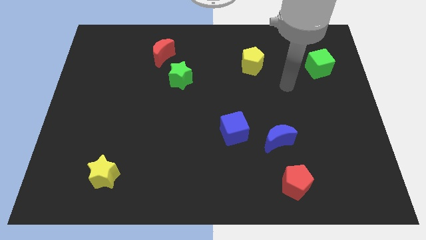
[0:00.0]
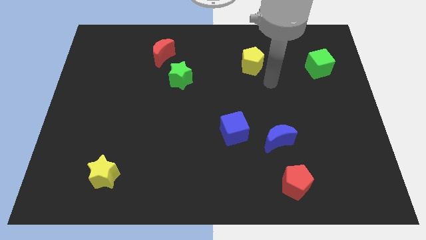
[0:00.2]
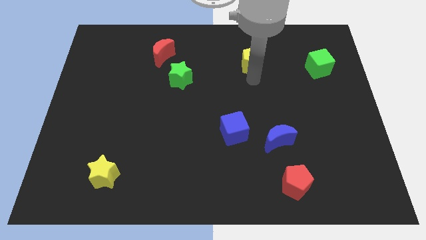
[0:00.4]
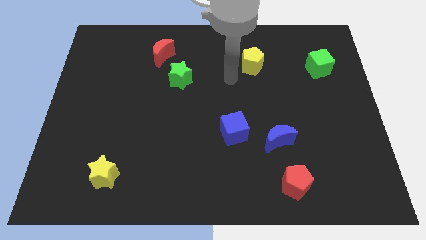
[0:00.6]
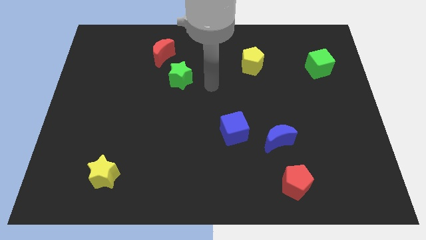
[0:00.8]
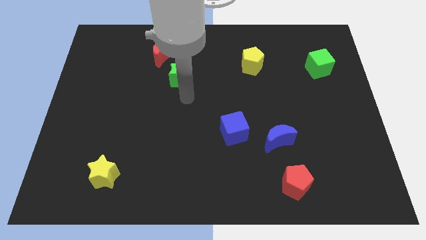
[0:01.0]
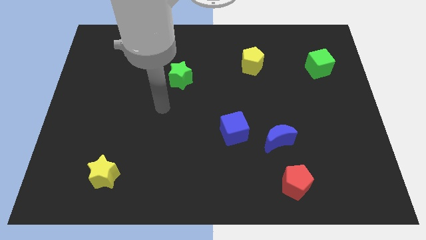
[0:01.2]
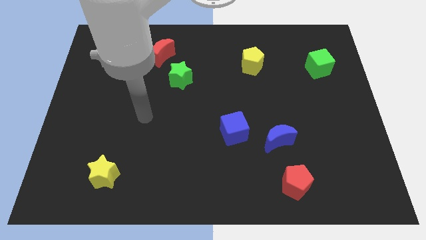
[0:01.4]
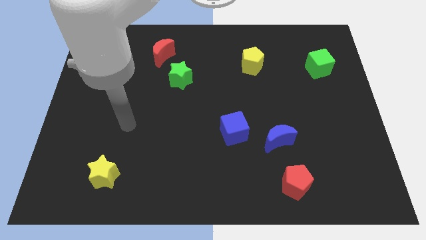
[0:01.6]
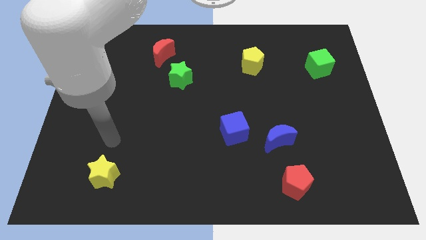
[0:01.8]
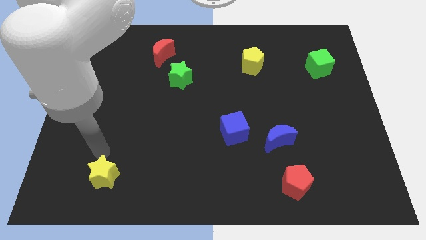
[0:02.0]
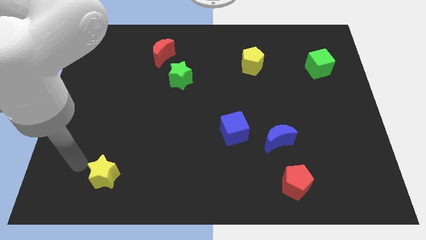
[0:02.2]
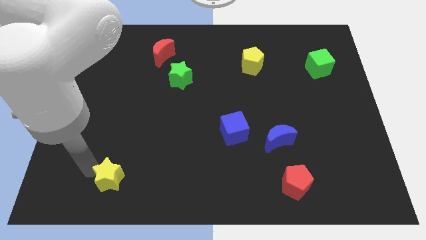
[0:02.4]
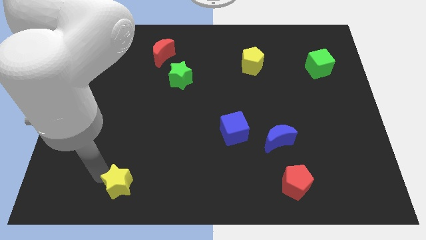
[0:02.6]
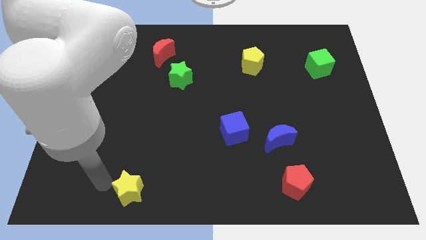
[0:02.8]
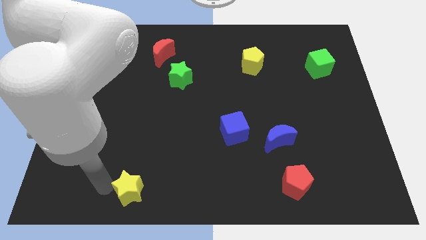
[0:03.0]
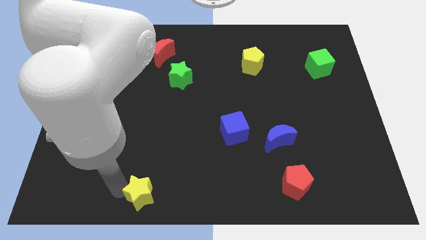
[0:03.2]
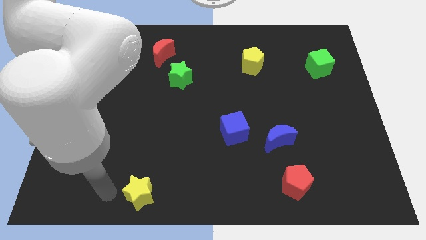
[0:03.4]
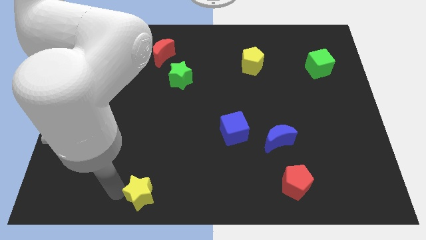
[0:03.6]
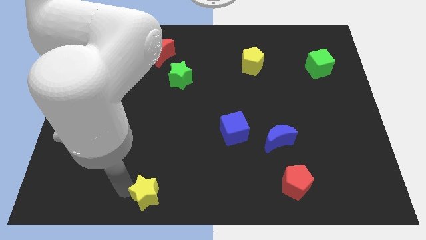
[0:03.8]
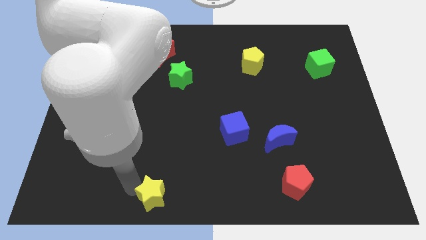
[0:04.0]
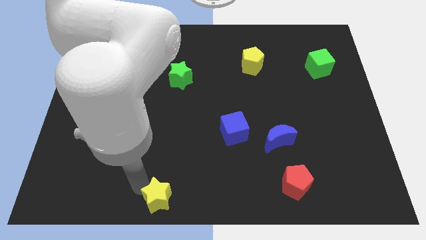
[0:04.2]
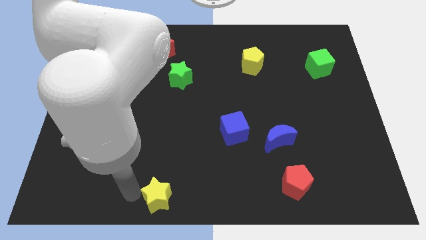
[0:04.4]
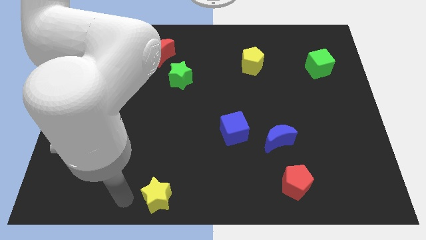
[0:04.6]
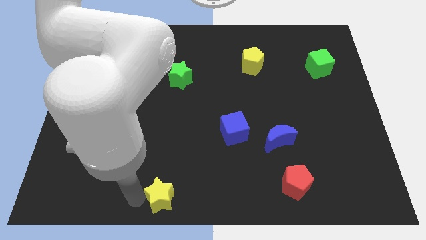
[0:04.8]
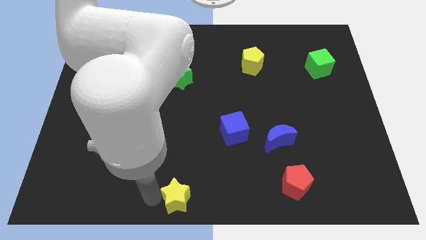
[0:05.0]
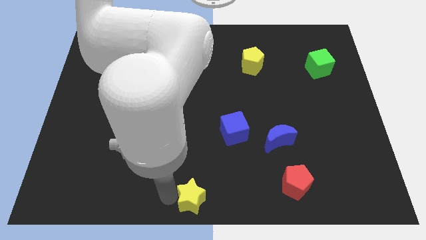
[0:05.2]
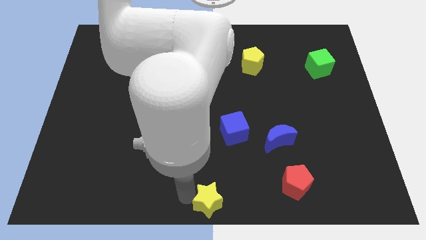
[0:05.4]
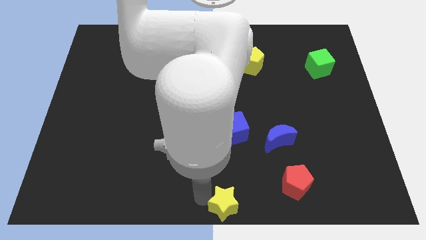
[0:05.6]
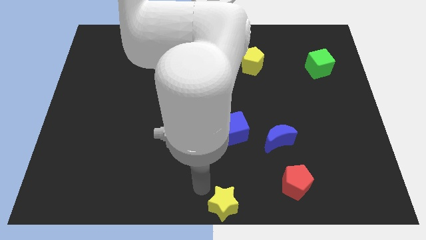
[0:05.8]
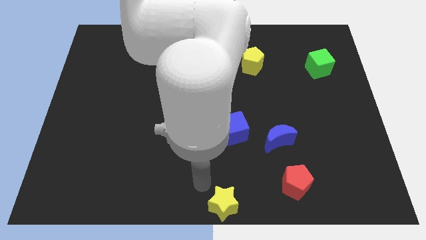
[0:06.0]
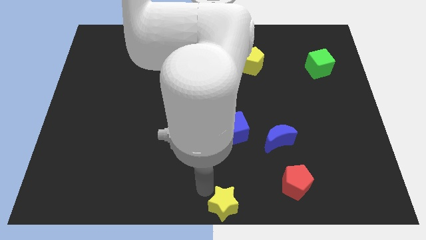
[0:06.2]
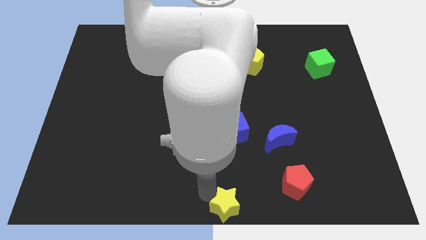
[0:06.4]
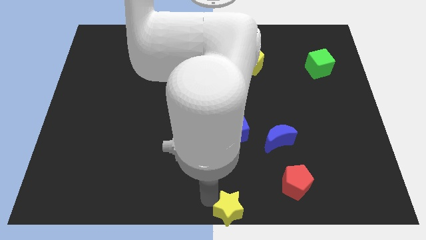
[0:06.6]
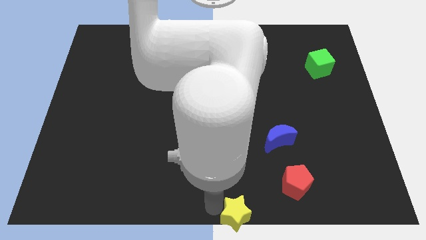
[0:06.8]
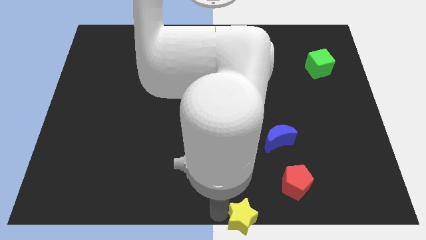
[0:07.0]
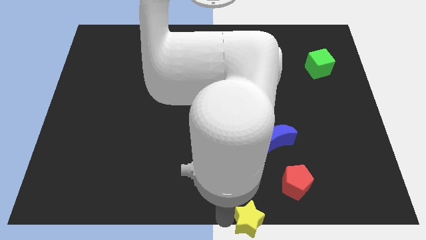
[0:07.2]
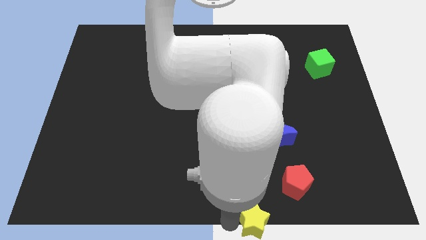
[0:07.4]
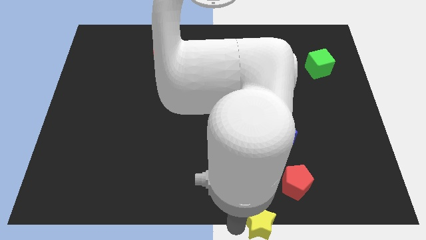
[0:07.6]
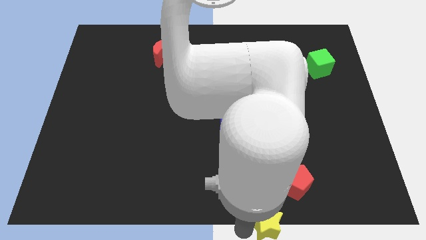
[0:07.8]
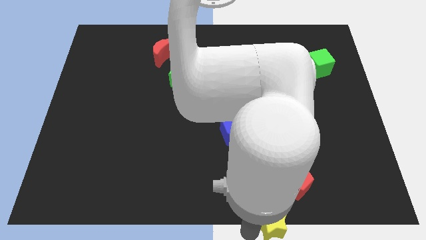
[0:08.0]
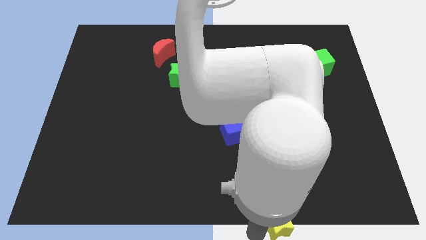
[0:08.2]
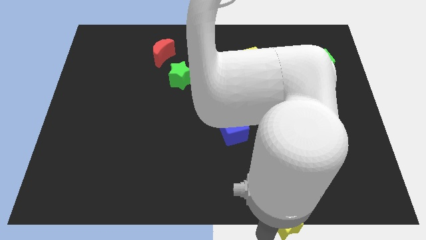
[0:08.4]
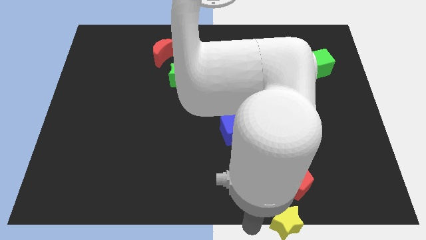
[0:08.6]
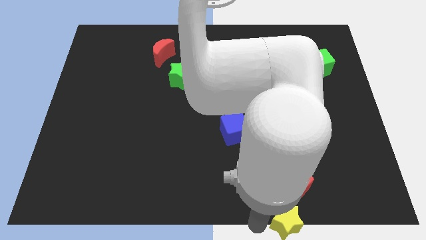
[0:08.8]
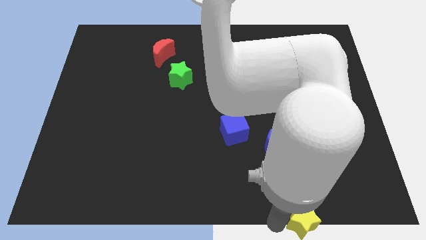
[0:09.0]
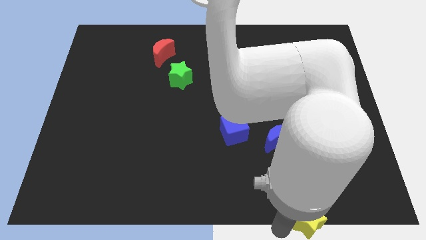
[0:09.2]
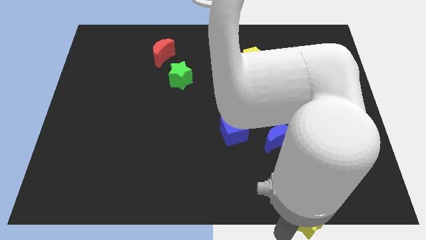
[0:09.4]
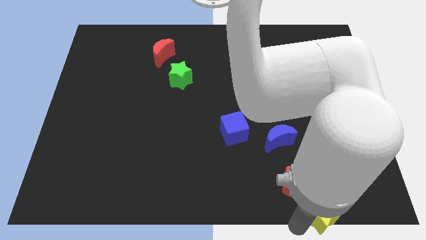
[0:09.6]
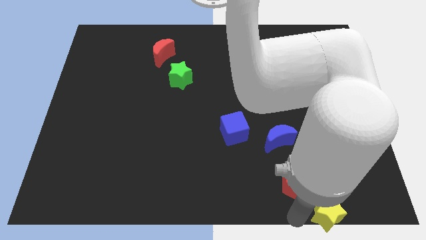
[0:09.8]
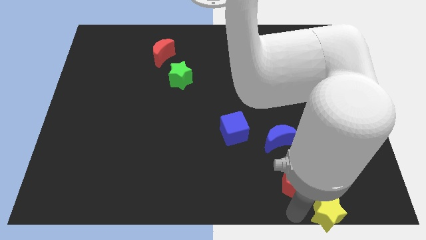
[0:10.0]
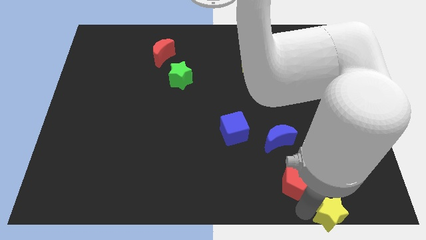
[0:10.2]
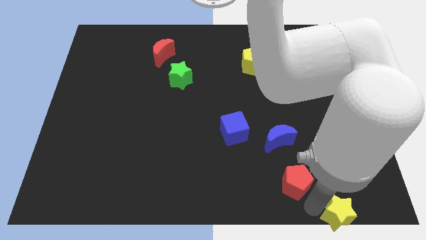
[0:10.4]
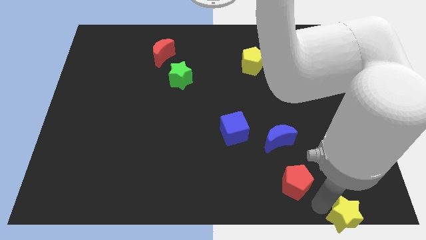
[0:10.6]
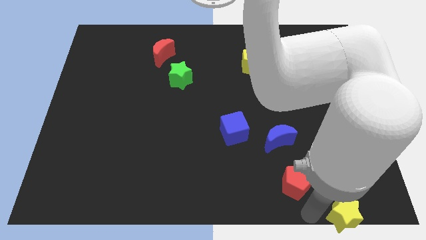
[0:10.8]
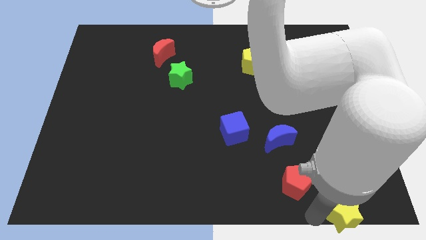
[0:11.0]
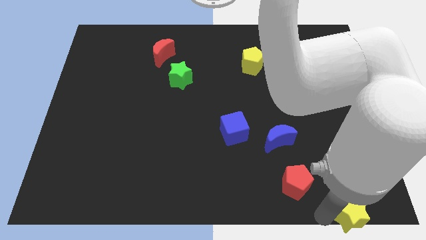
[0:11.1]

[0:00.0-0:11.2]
move the yellow star to the bottom right of the board

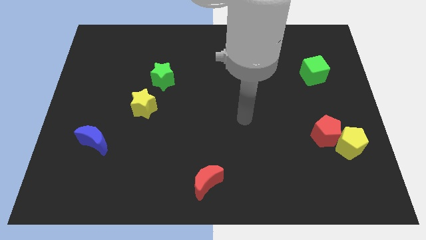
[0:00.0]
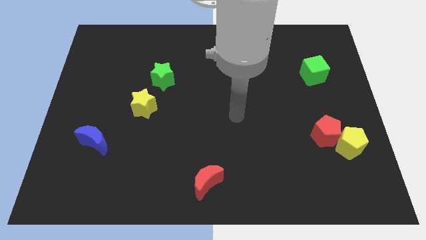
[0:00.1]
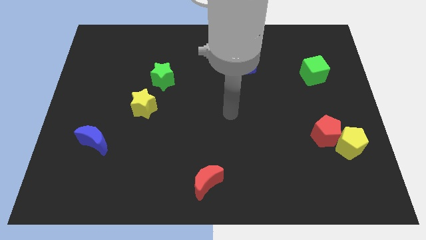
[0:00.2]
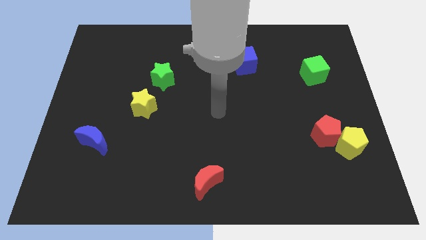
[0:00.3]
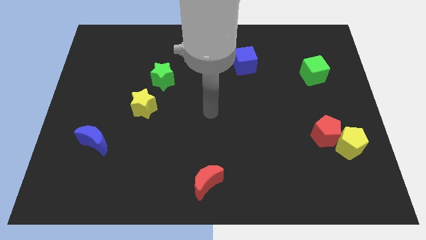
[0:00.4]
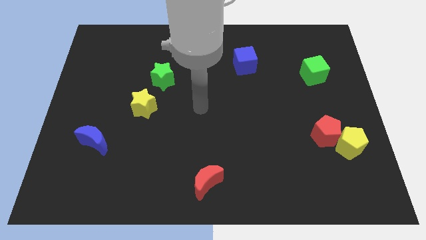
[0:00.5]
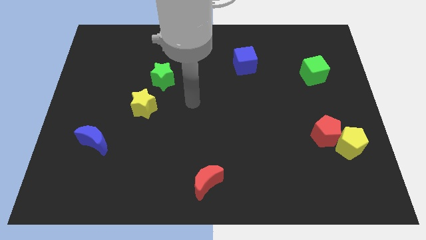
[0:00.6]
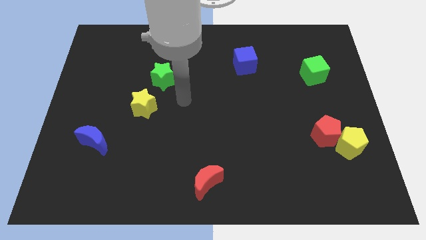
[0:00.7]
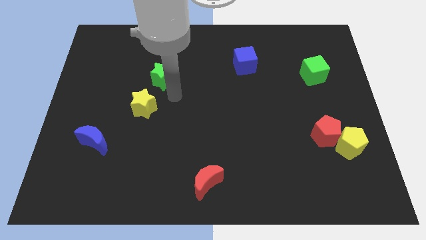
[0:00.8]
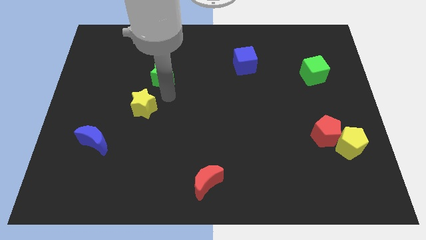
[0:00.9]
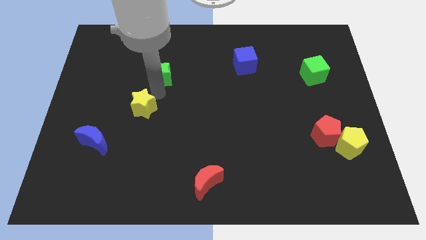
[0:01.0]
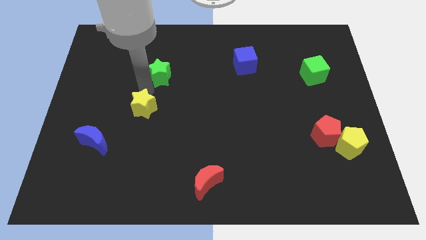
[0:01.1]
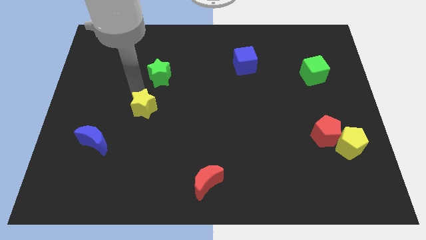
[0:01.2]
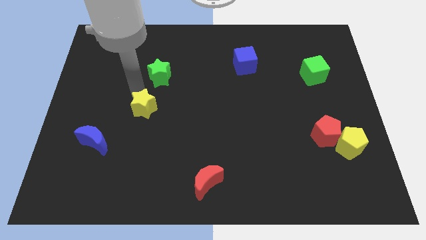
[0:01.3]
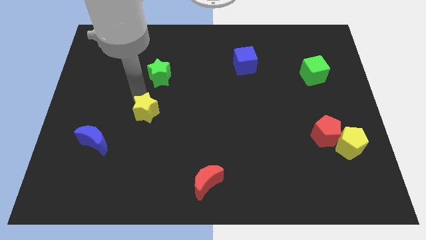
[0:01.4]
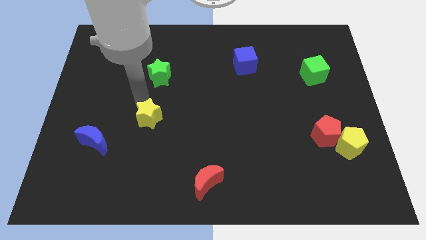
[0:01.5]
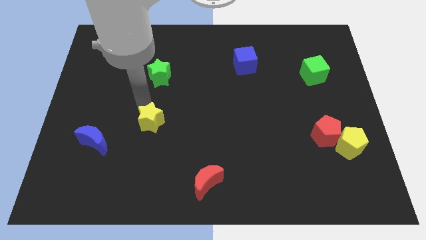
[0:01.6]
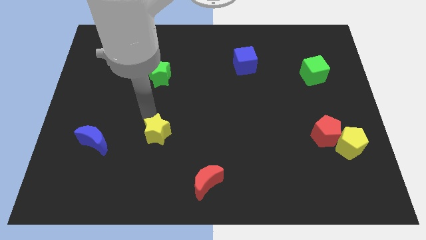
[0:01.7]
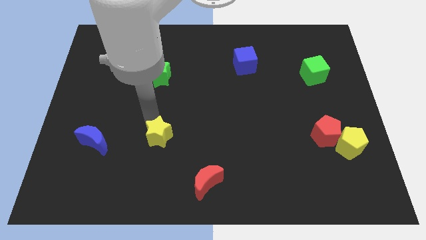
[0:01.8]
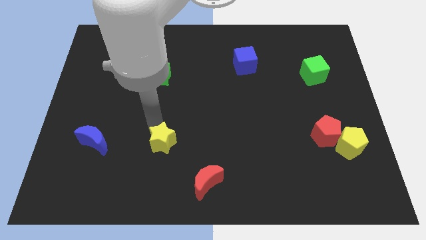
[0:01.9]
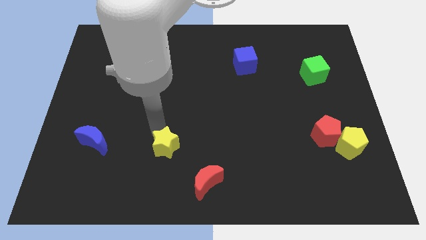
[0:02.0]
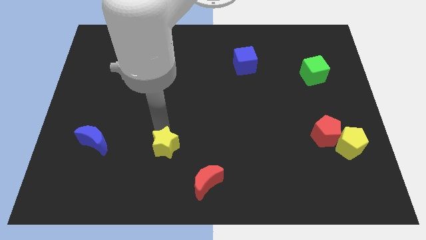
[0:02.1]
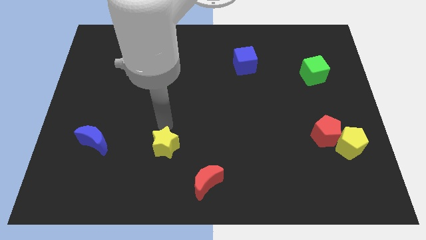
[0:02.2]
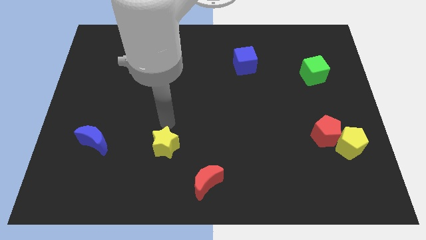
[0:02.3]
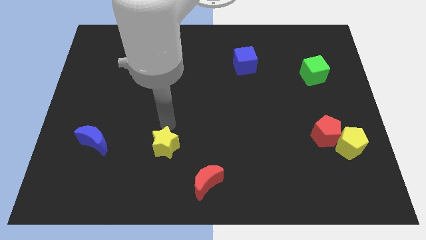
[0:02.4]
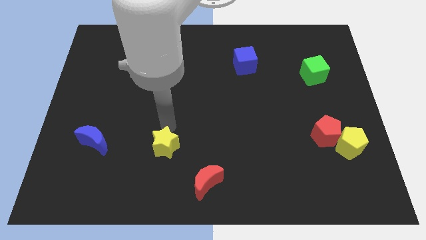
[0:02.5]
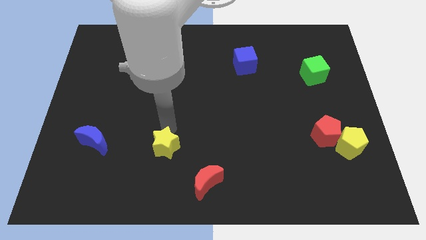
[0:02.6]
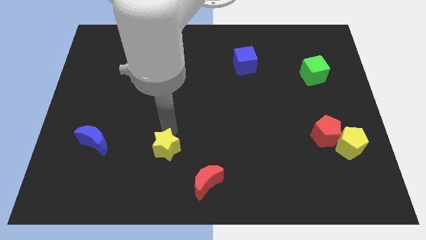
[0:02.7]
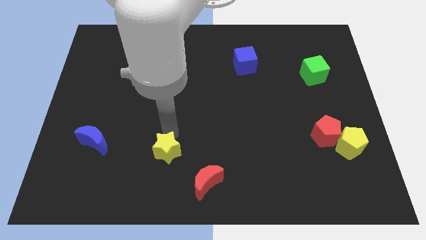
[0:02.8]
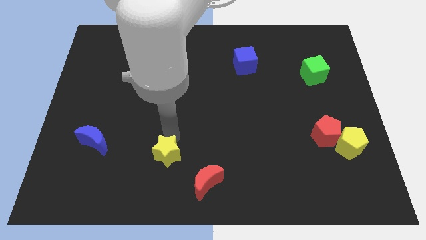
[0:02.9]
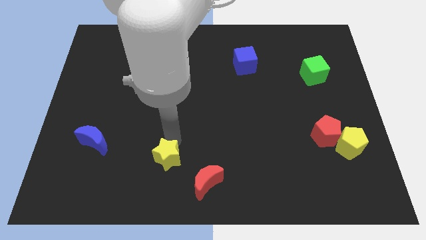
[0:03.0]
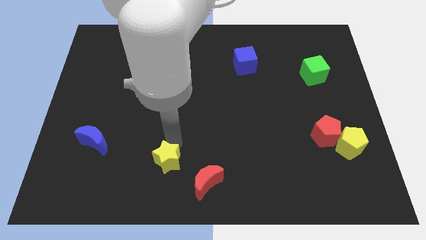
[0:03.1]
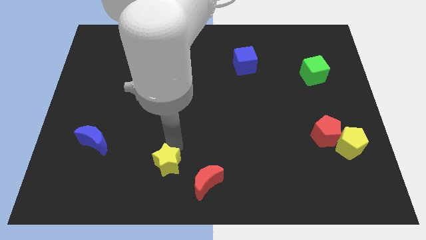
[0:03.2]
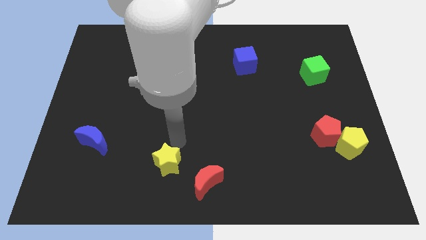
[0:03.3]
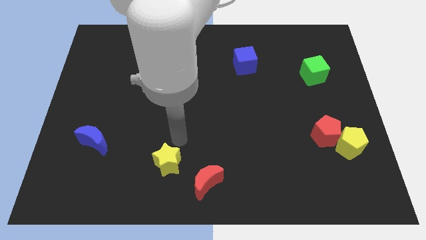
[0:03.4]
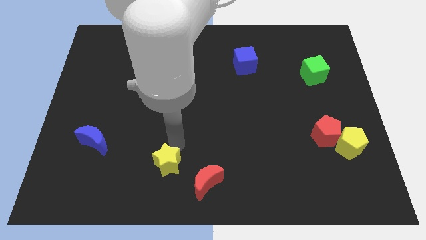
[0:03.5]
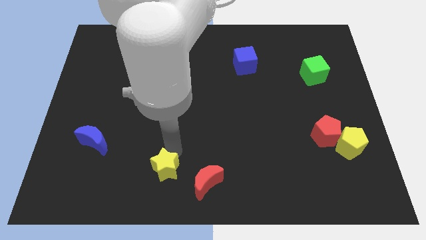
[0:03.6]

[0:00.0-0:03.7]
move the yellow star to the bottom
